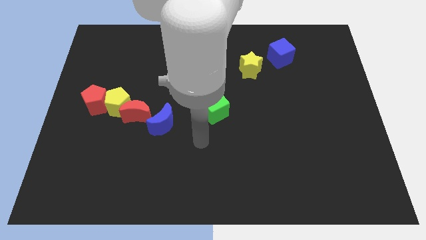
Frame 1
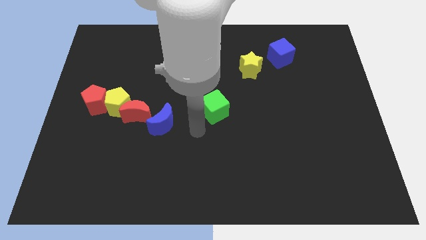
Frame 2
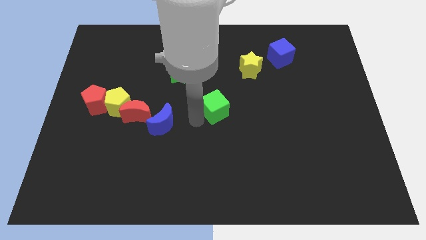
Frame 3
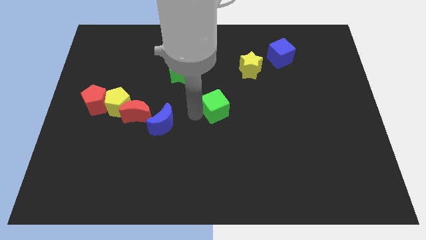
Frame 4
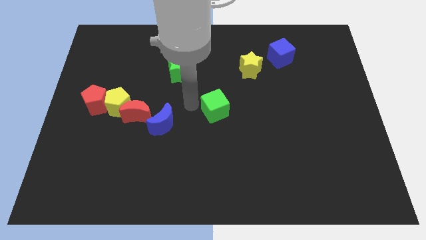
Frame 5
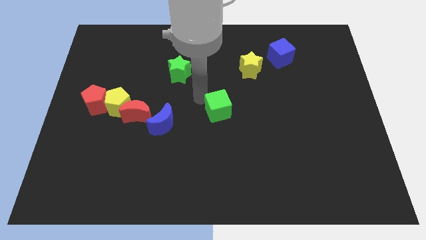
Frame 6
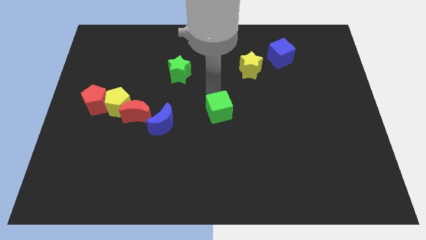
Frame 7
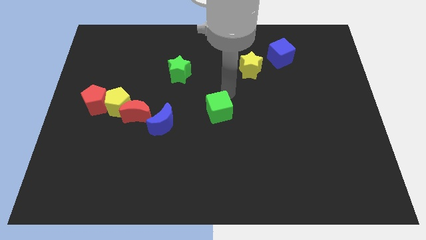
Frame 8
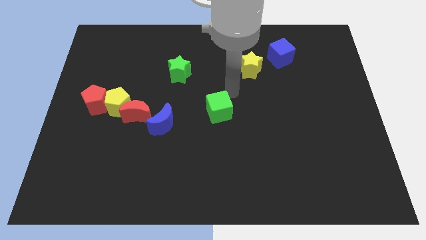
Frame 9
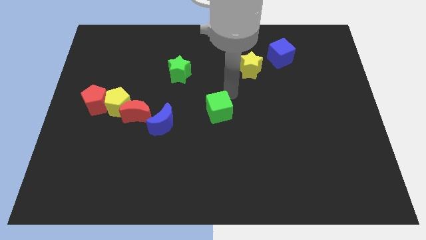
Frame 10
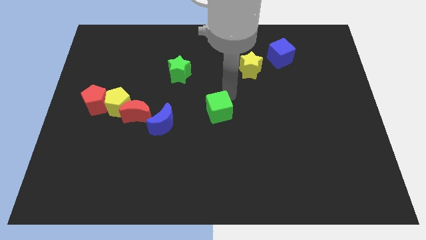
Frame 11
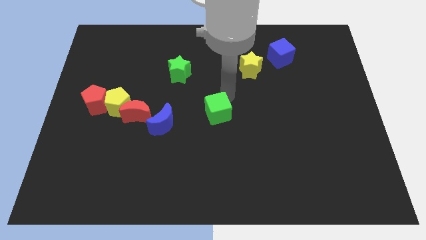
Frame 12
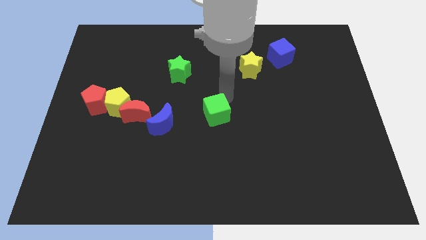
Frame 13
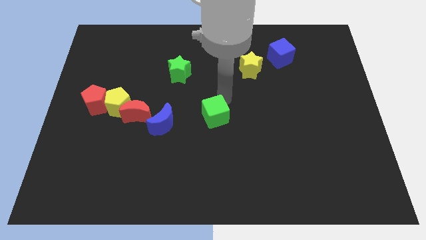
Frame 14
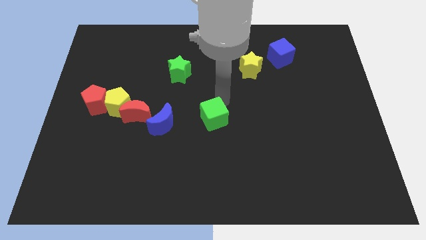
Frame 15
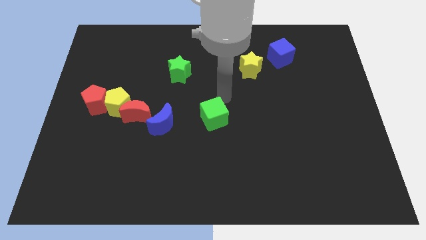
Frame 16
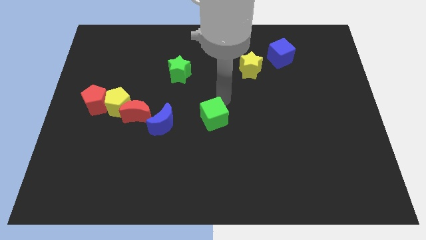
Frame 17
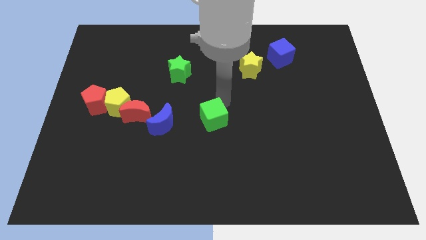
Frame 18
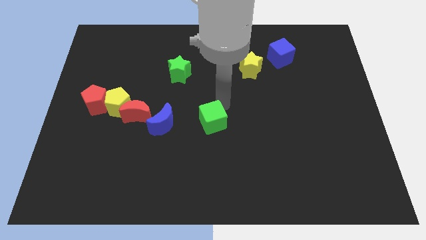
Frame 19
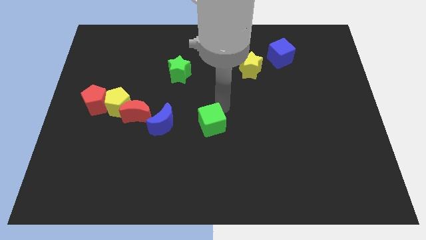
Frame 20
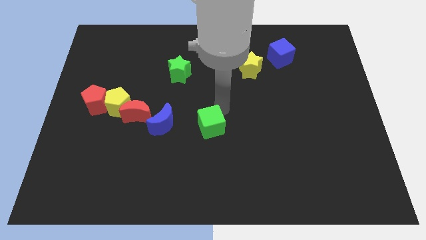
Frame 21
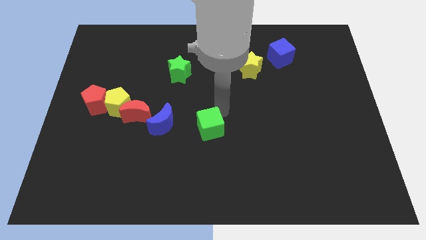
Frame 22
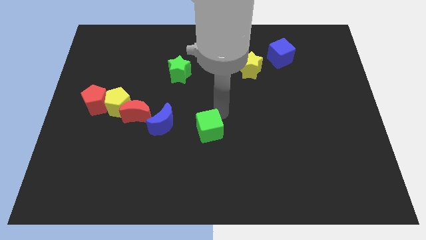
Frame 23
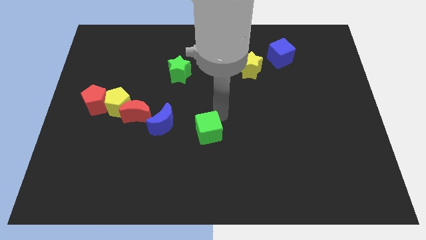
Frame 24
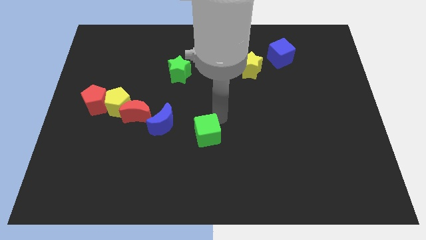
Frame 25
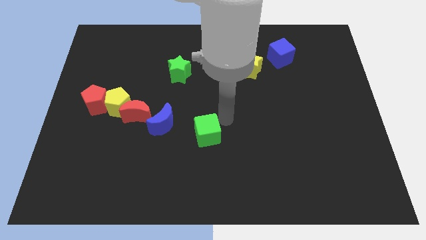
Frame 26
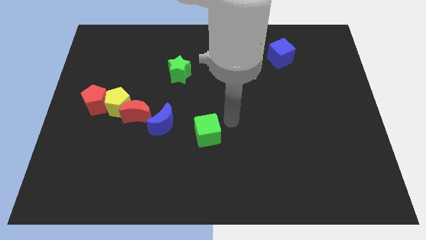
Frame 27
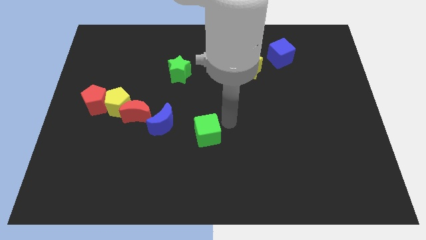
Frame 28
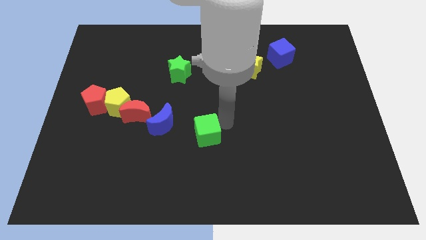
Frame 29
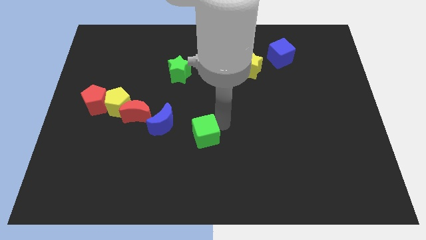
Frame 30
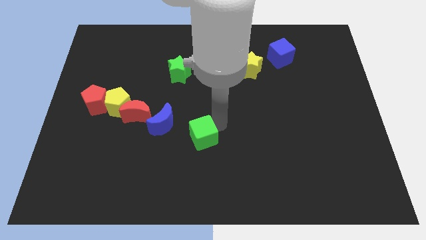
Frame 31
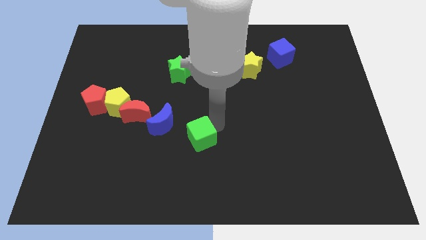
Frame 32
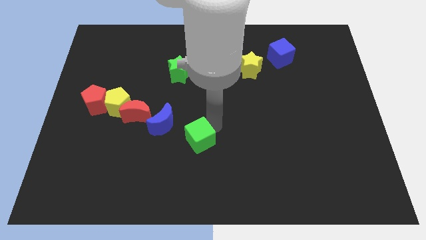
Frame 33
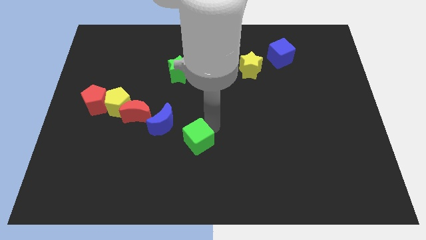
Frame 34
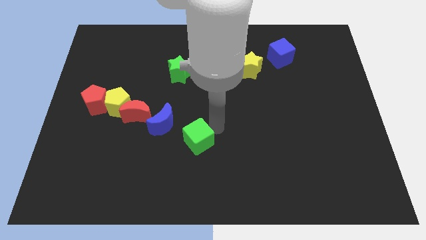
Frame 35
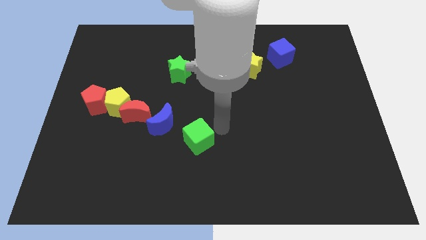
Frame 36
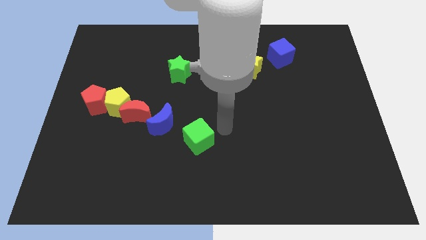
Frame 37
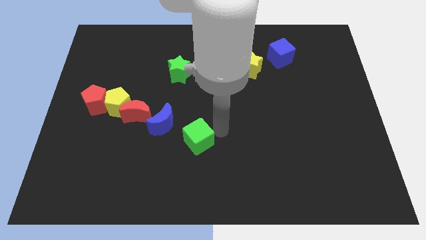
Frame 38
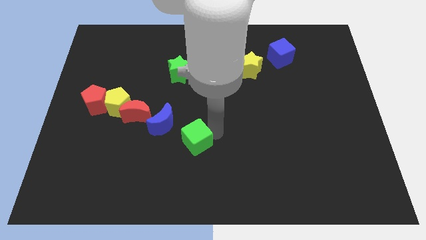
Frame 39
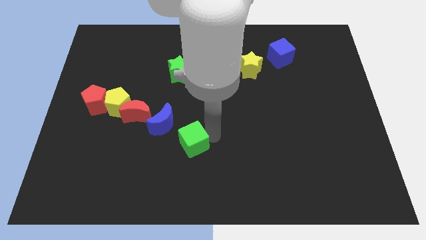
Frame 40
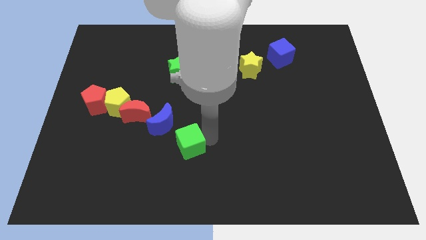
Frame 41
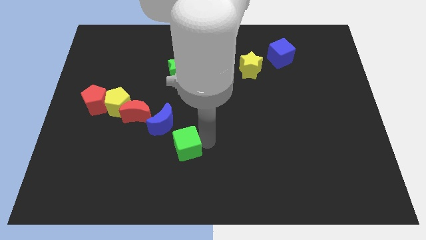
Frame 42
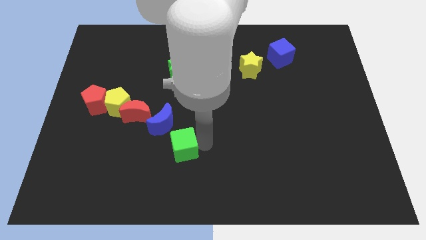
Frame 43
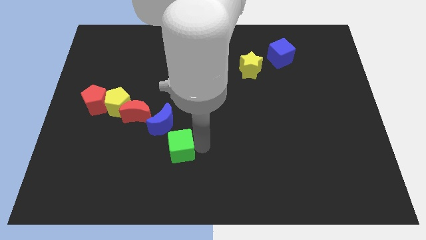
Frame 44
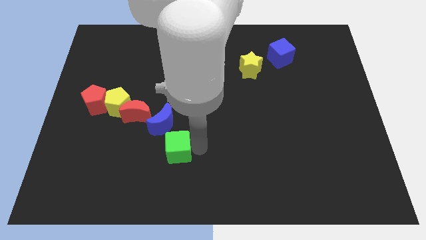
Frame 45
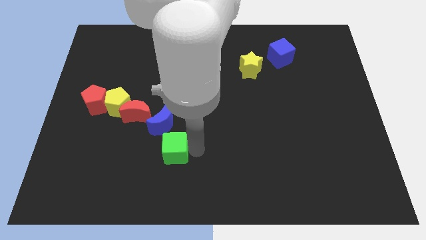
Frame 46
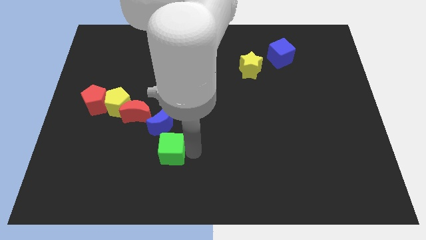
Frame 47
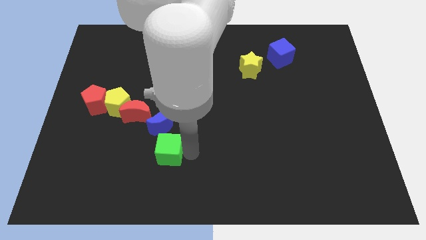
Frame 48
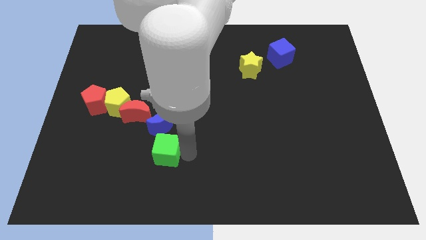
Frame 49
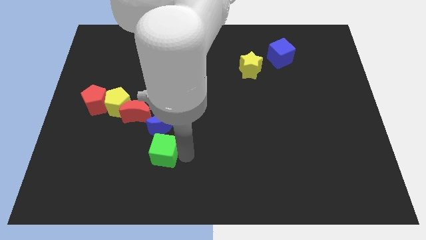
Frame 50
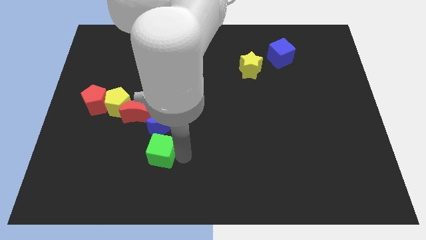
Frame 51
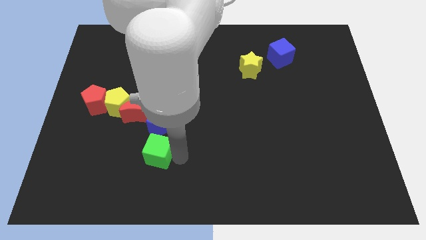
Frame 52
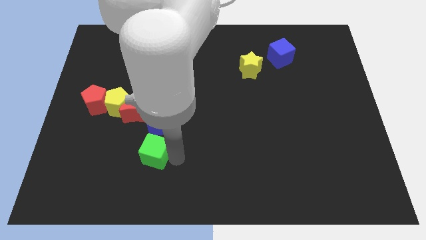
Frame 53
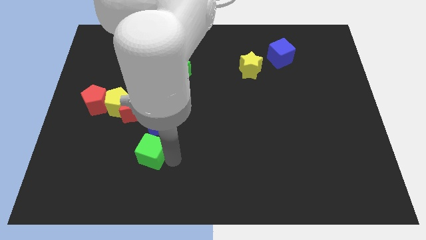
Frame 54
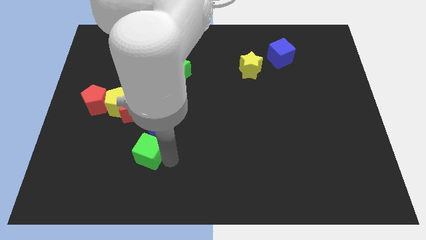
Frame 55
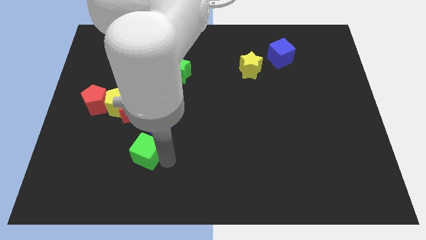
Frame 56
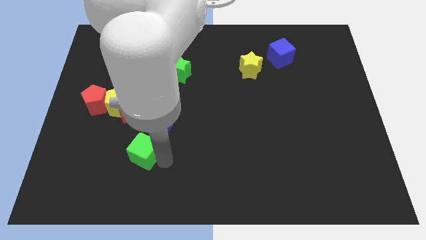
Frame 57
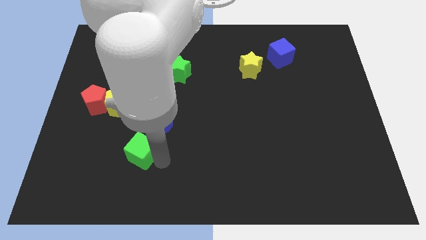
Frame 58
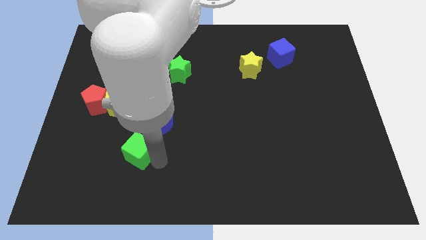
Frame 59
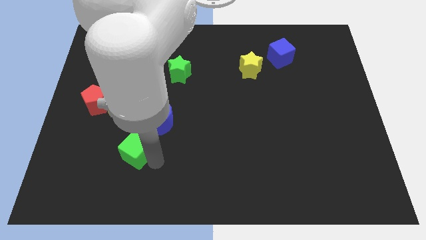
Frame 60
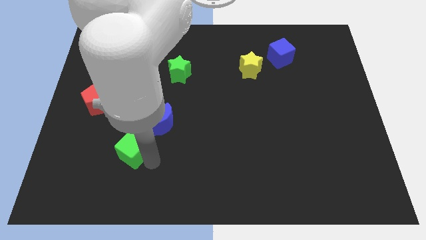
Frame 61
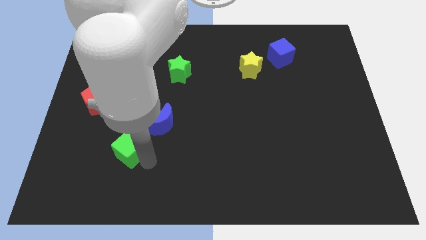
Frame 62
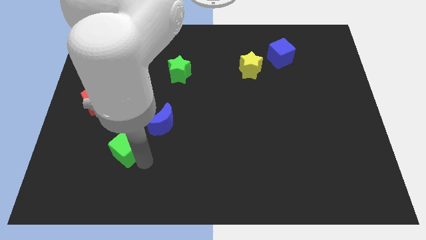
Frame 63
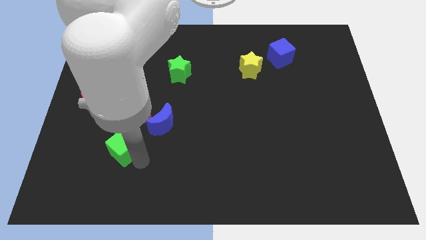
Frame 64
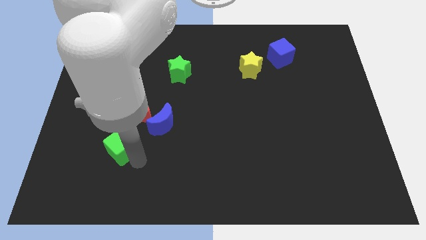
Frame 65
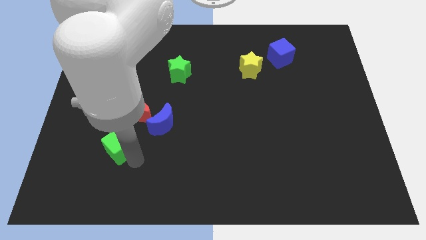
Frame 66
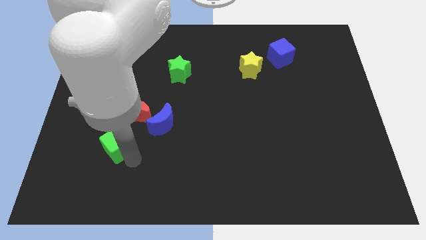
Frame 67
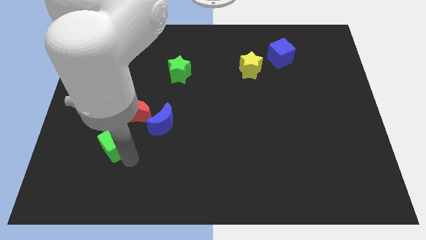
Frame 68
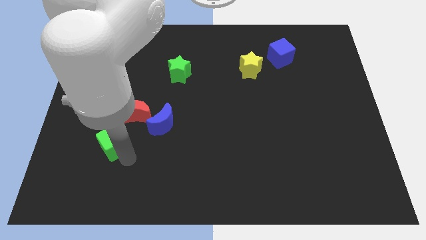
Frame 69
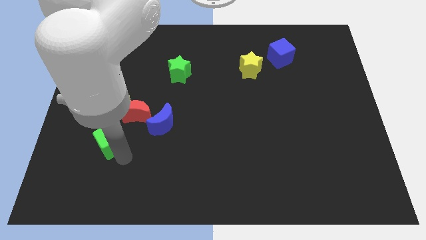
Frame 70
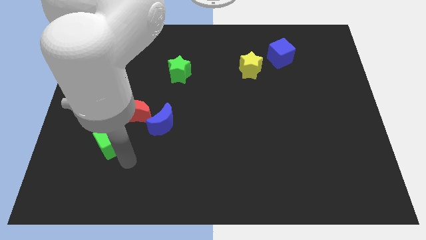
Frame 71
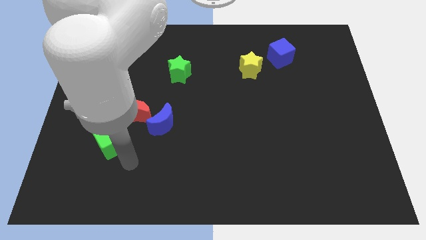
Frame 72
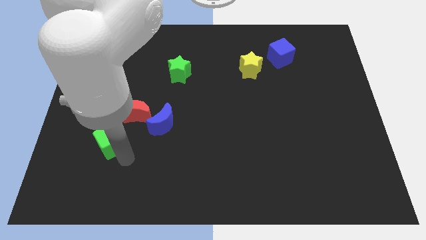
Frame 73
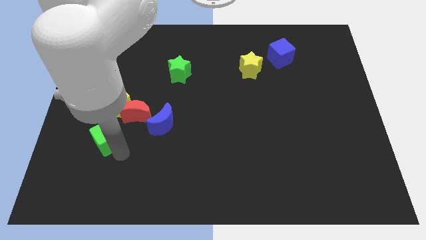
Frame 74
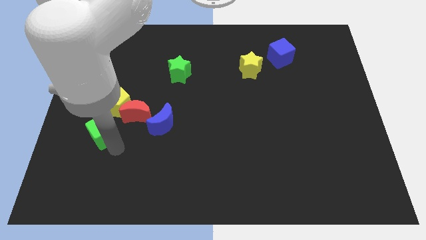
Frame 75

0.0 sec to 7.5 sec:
put the green cube diagonally down and to the left of the yellow pentagon
